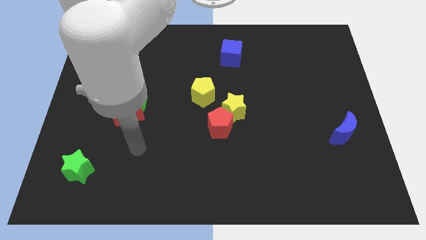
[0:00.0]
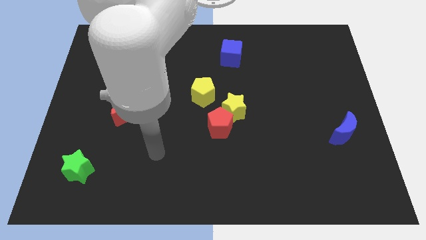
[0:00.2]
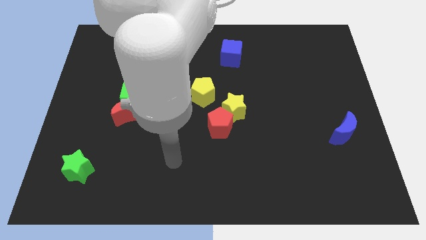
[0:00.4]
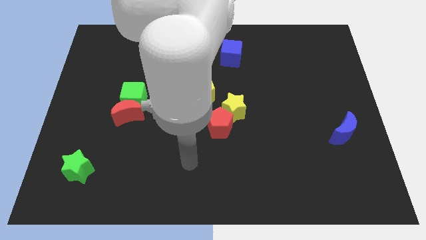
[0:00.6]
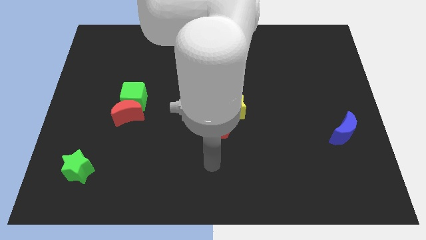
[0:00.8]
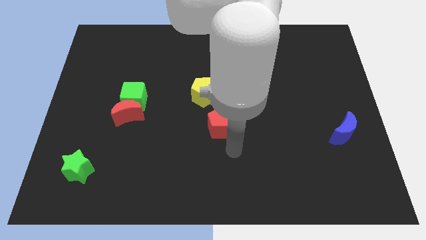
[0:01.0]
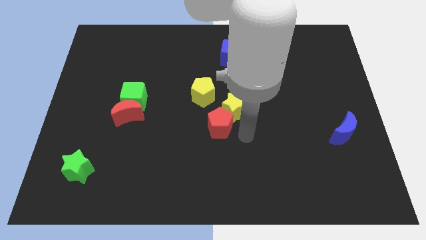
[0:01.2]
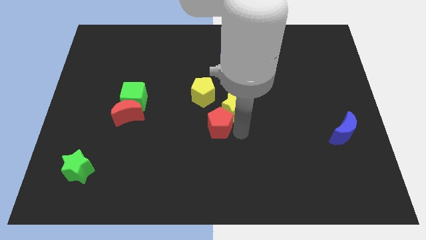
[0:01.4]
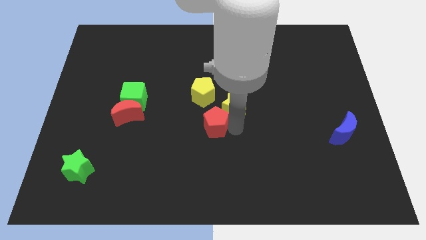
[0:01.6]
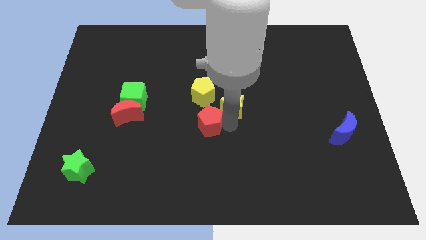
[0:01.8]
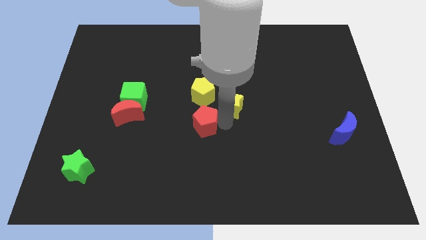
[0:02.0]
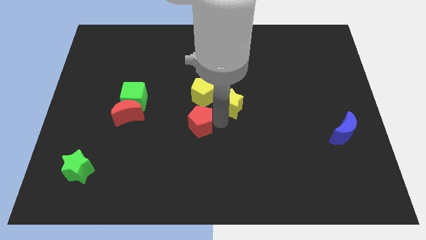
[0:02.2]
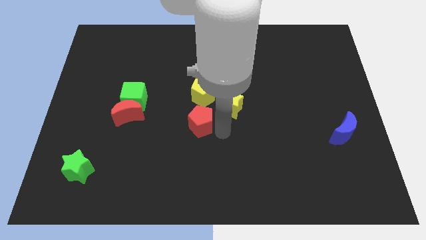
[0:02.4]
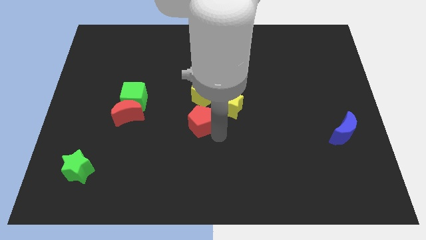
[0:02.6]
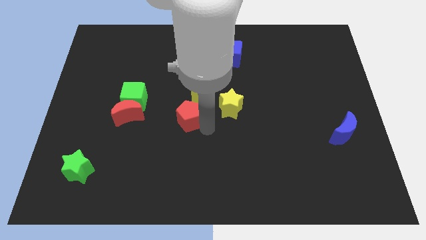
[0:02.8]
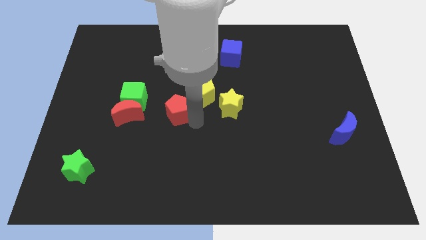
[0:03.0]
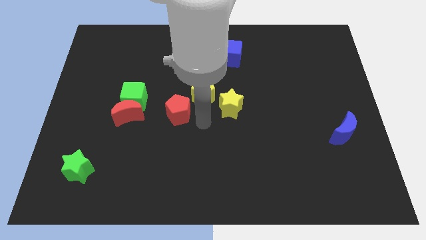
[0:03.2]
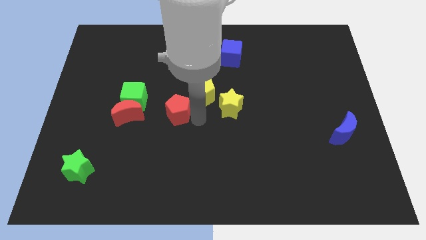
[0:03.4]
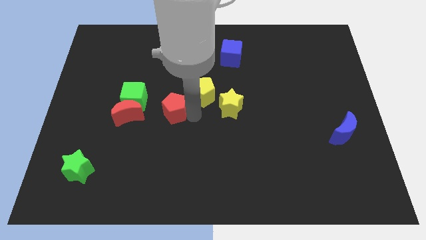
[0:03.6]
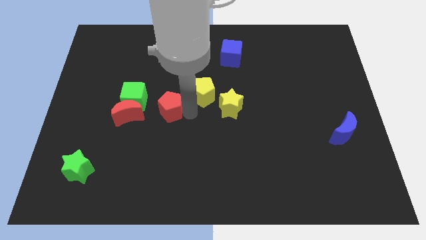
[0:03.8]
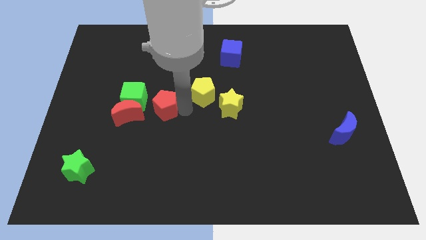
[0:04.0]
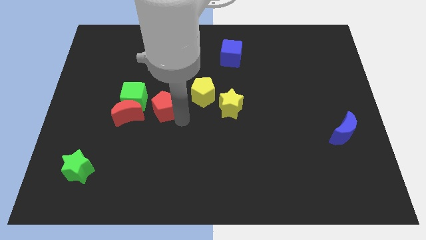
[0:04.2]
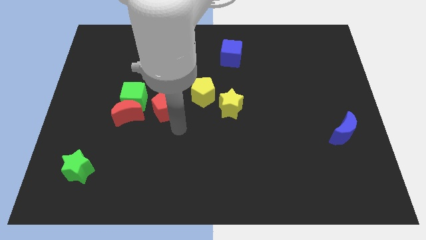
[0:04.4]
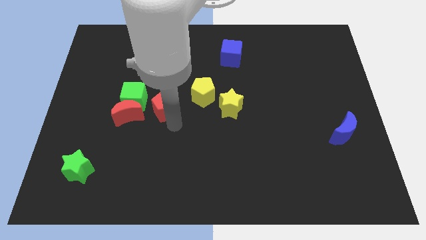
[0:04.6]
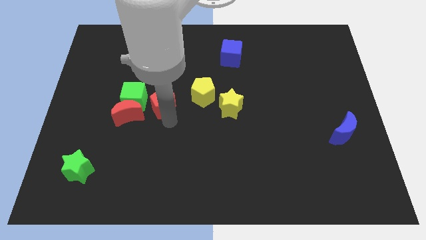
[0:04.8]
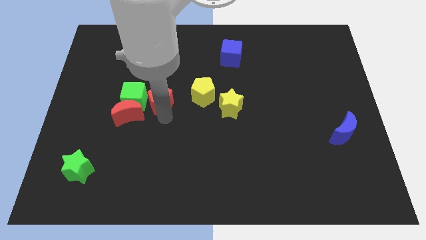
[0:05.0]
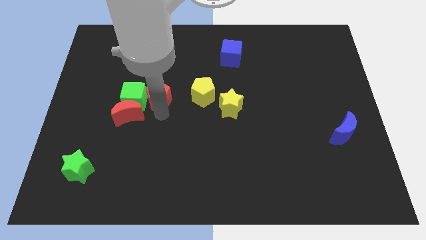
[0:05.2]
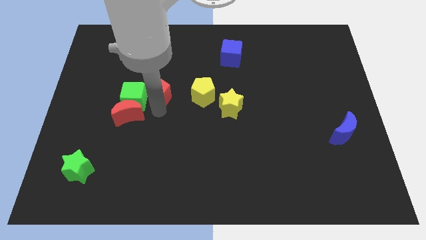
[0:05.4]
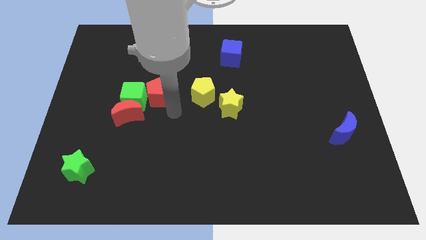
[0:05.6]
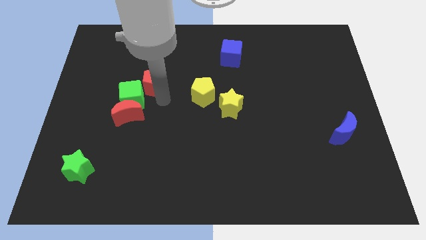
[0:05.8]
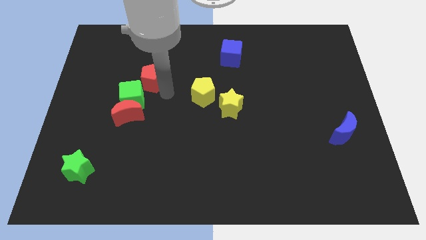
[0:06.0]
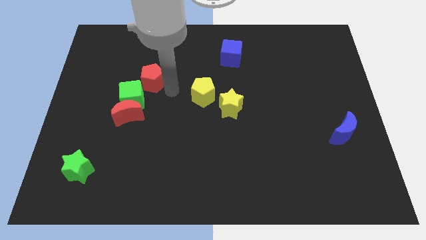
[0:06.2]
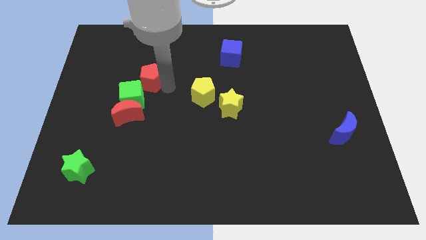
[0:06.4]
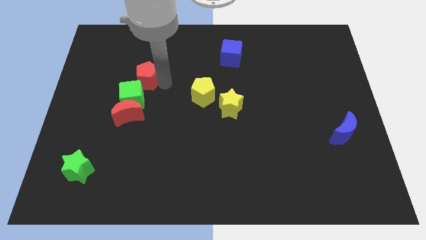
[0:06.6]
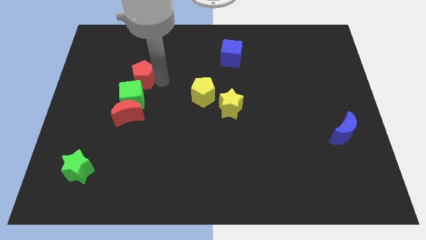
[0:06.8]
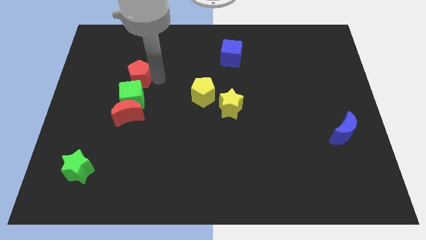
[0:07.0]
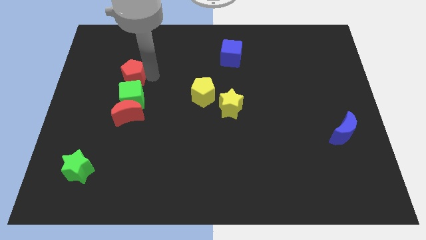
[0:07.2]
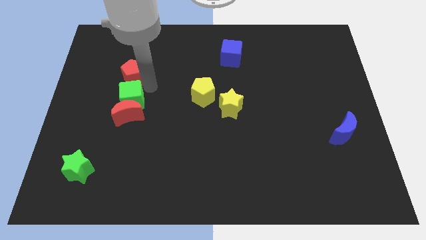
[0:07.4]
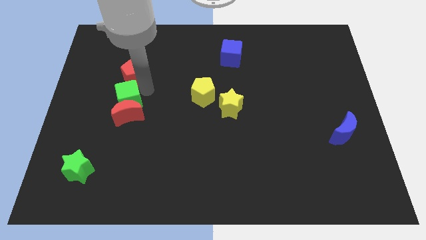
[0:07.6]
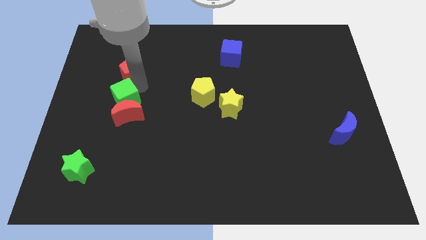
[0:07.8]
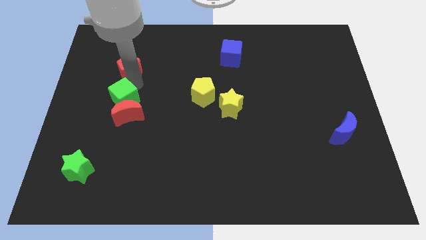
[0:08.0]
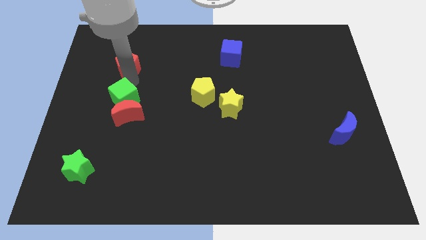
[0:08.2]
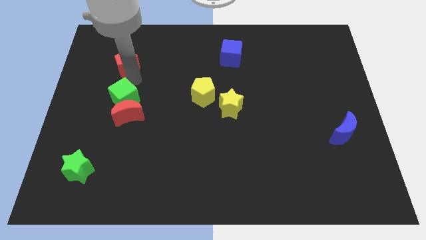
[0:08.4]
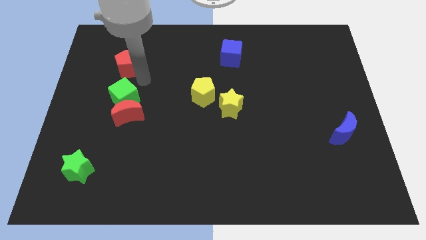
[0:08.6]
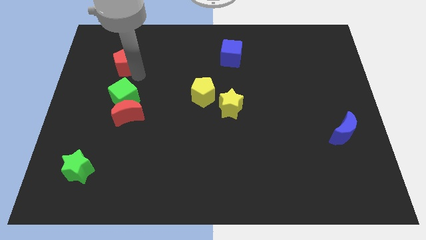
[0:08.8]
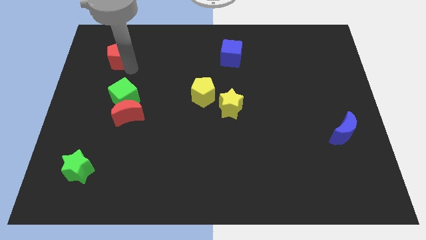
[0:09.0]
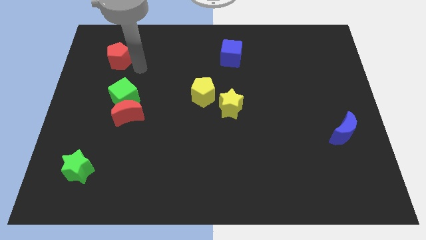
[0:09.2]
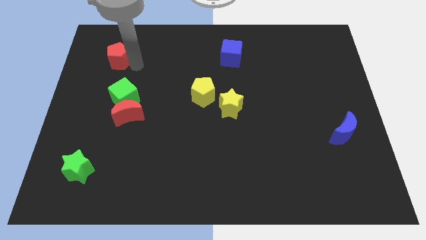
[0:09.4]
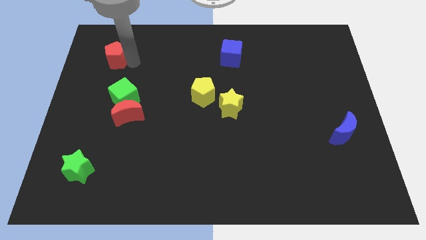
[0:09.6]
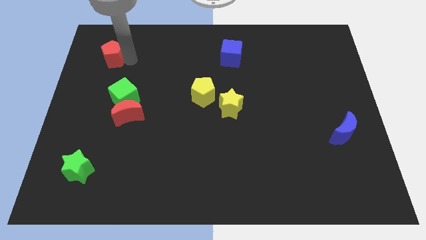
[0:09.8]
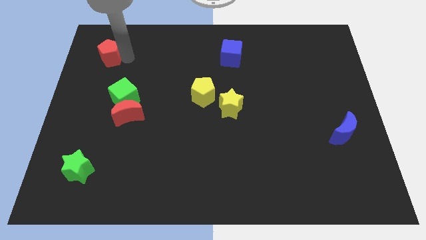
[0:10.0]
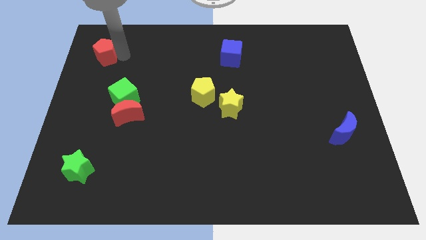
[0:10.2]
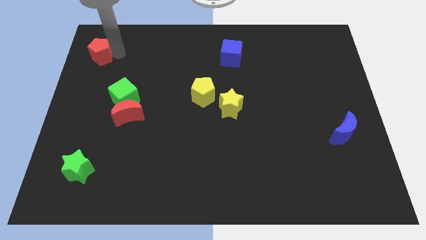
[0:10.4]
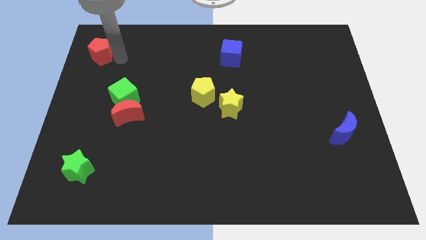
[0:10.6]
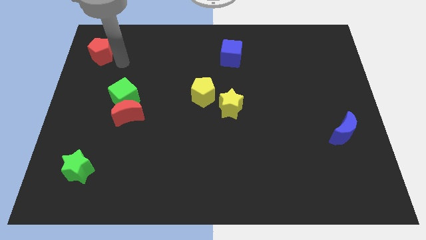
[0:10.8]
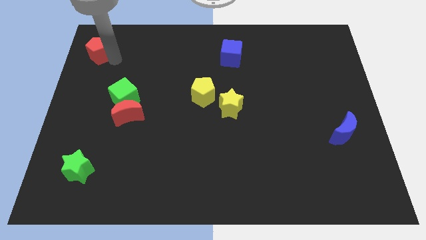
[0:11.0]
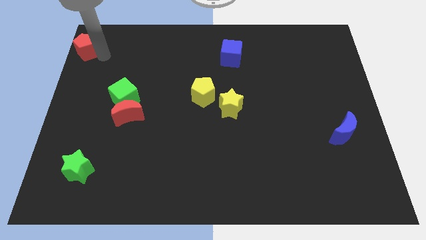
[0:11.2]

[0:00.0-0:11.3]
push the red pentagon to the top left of the board
